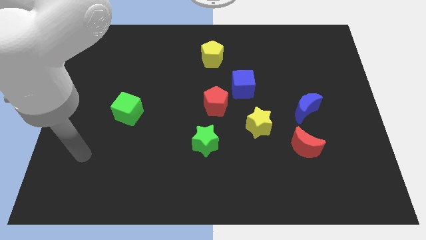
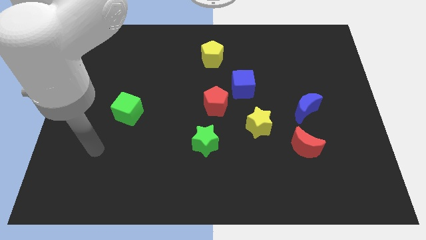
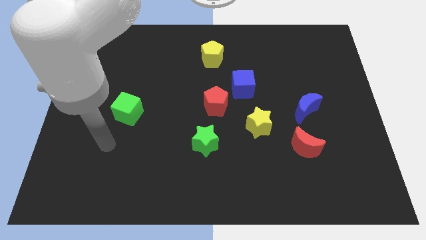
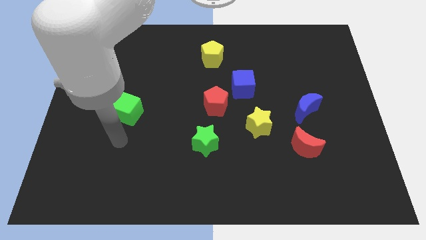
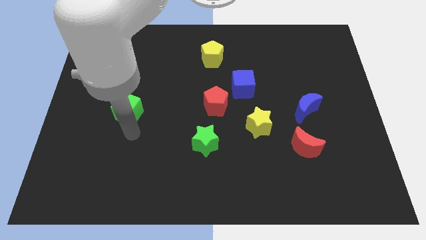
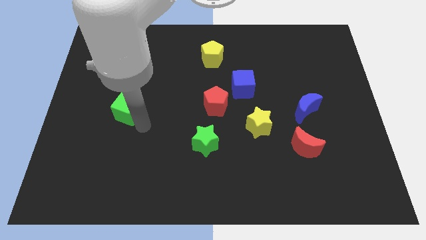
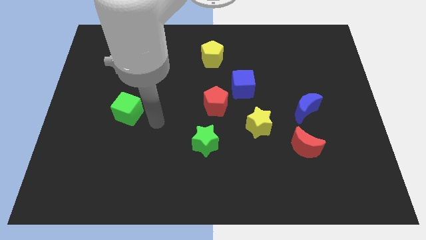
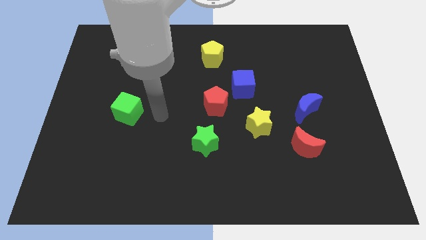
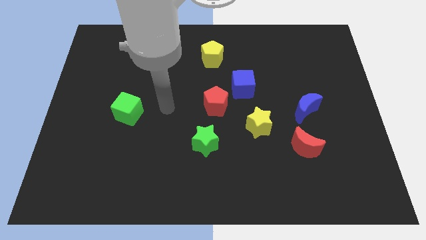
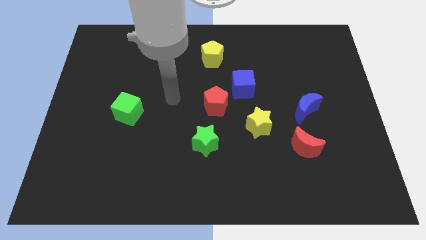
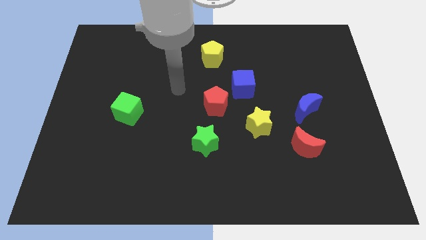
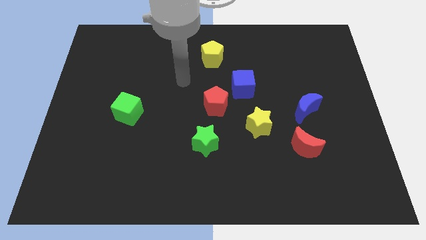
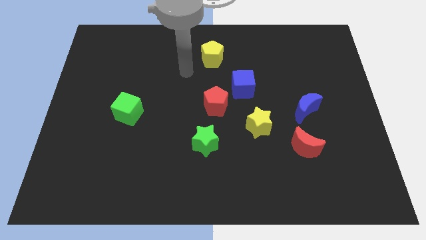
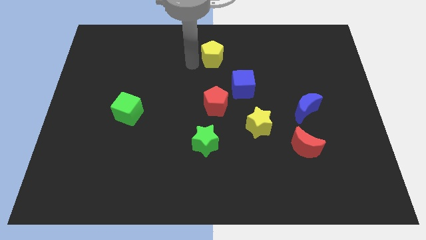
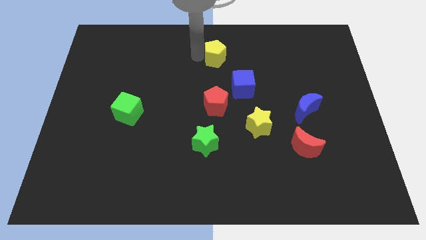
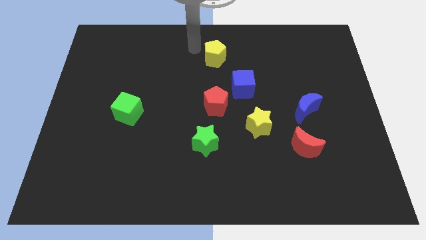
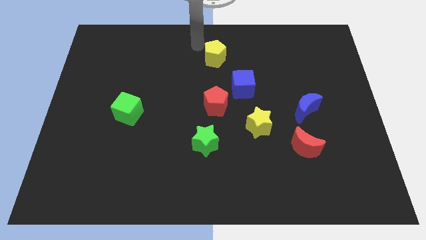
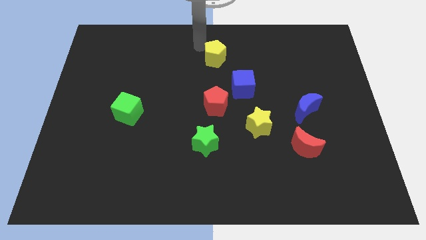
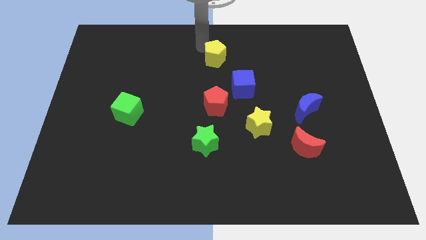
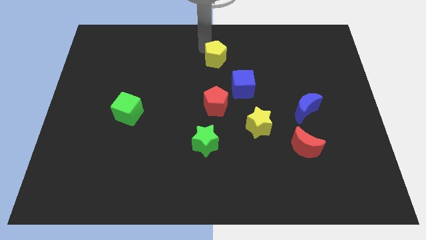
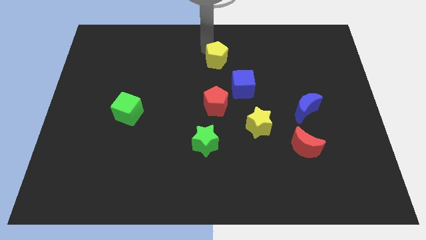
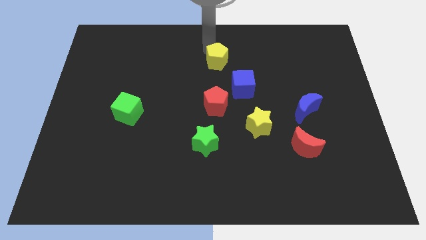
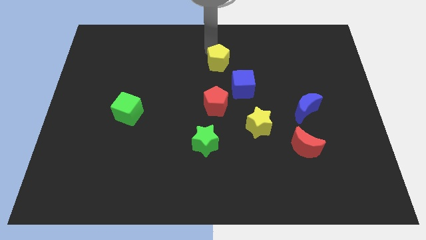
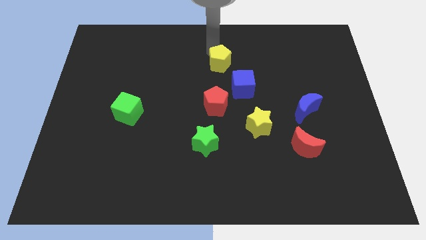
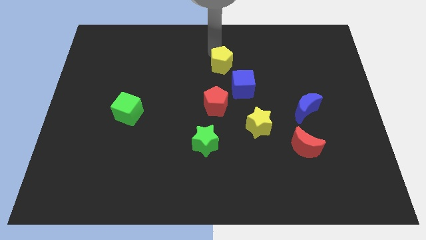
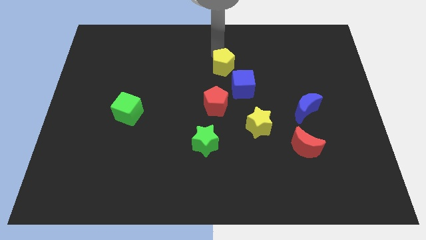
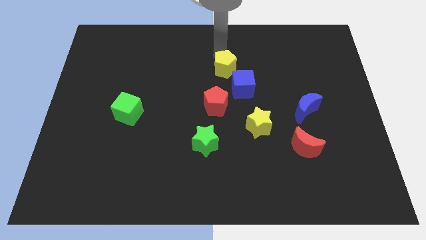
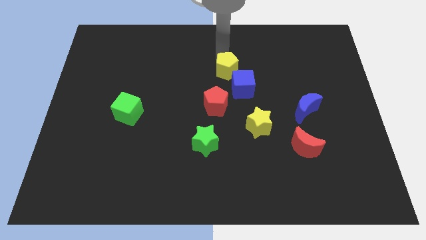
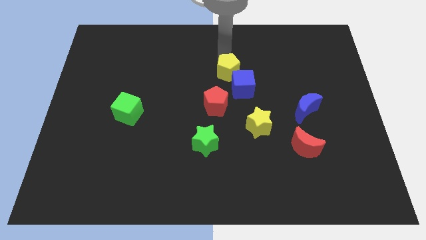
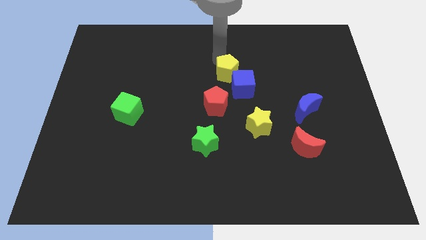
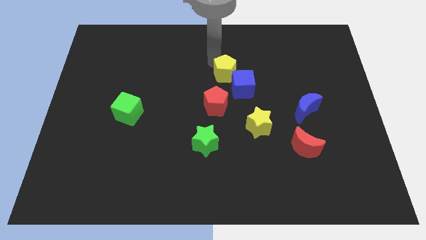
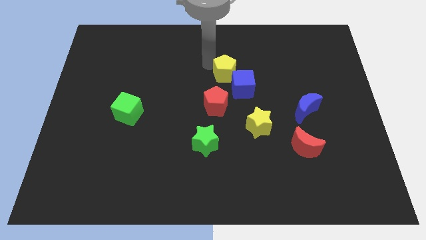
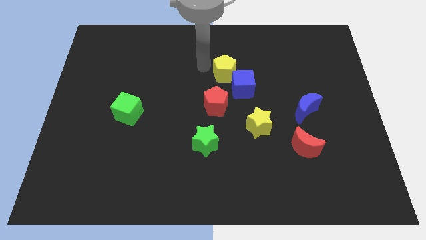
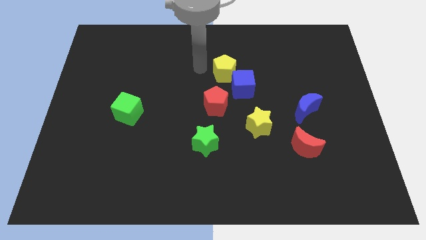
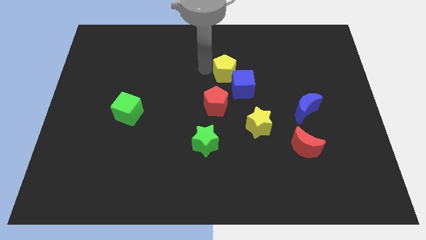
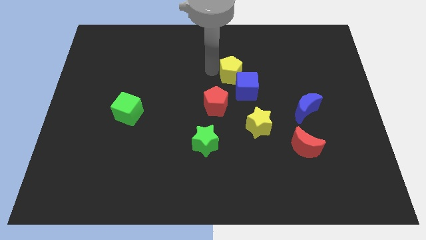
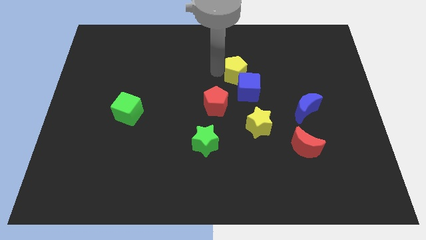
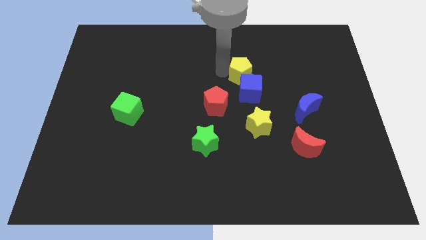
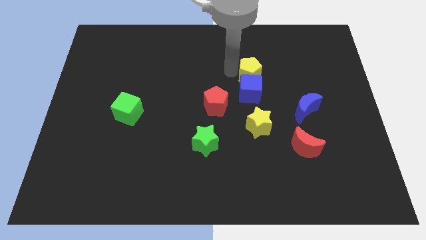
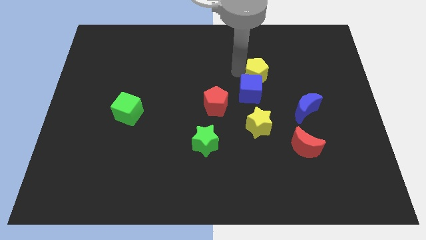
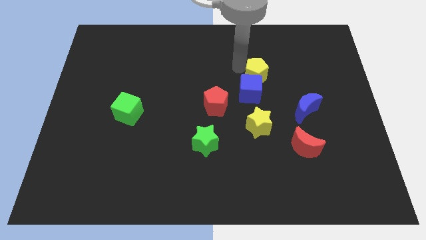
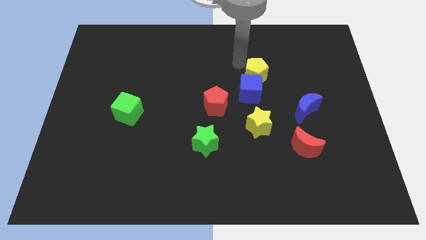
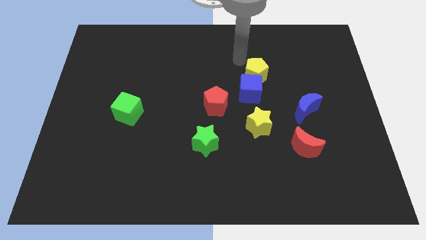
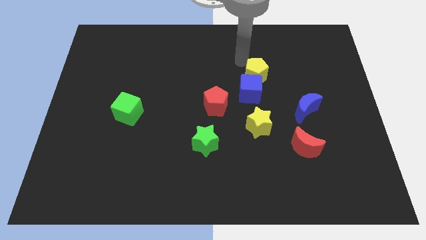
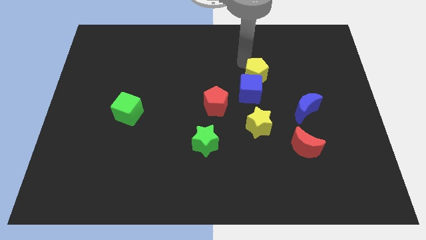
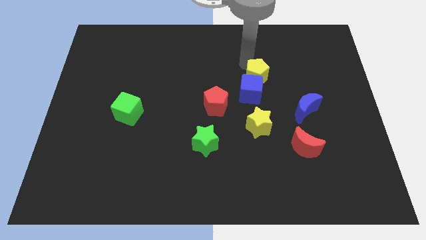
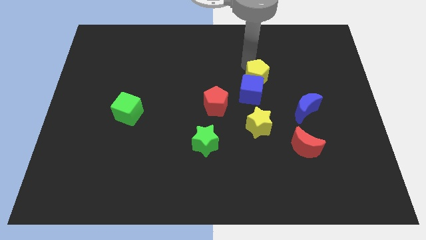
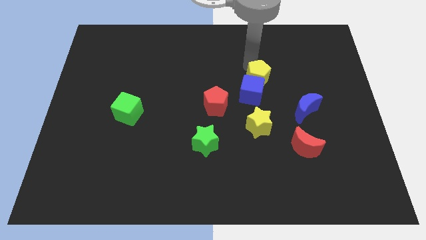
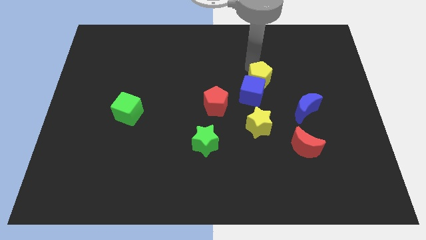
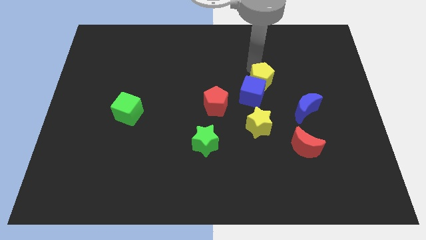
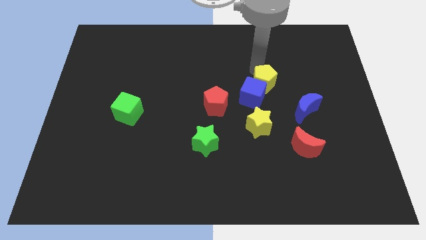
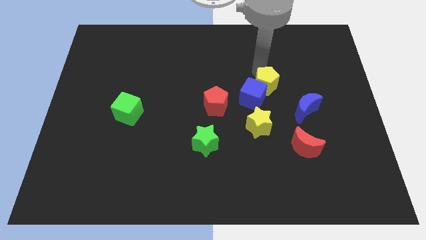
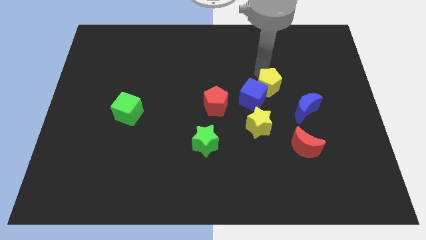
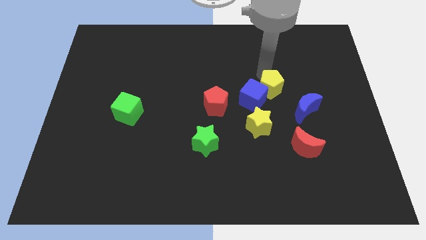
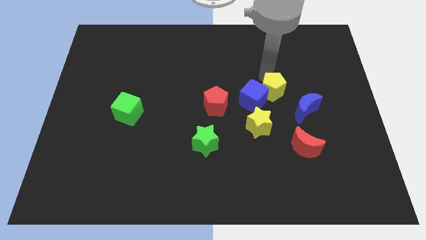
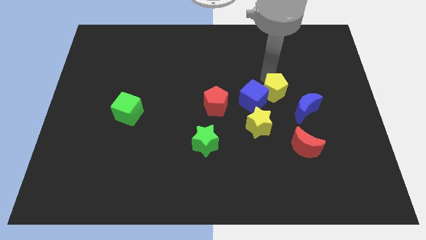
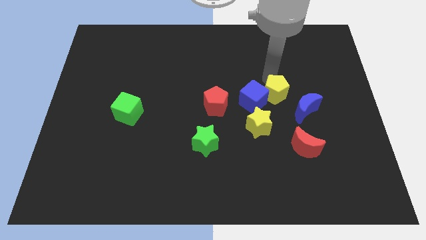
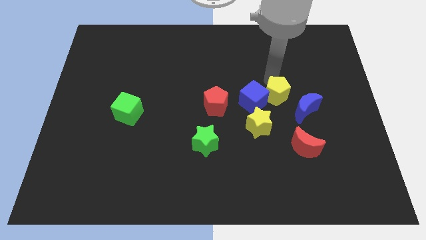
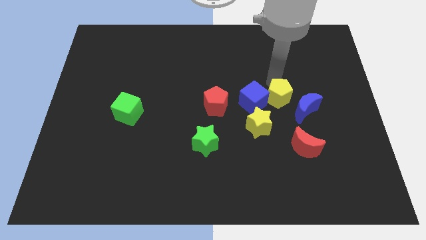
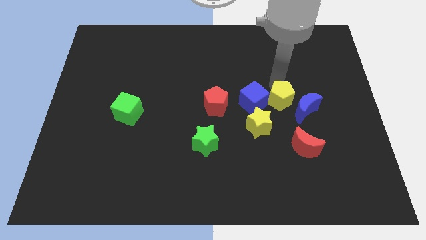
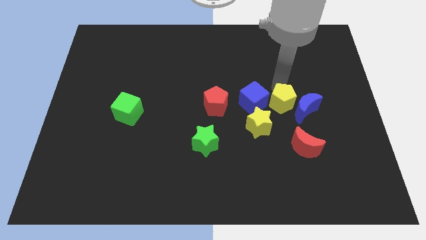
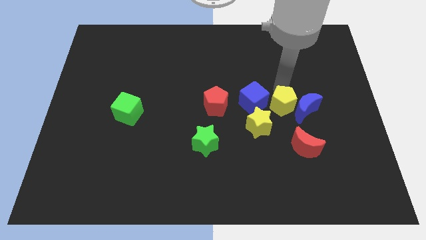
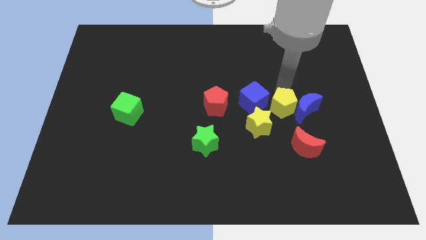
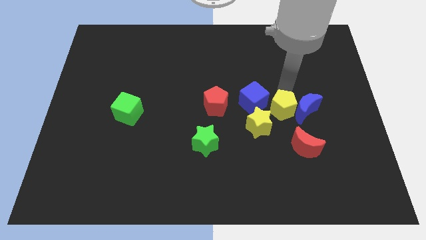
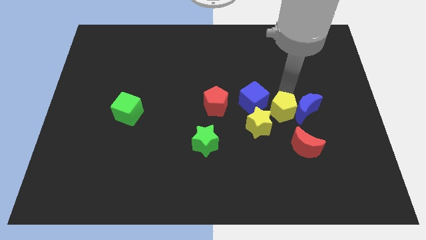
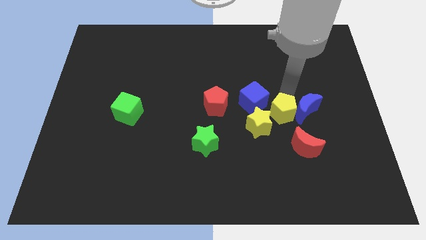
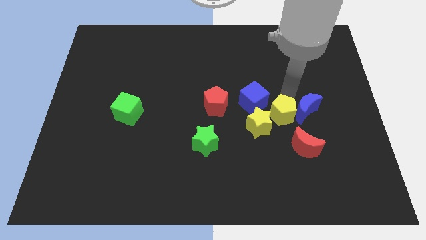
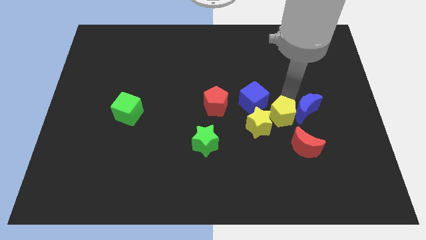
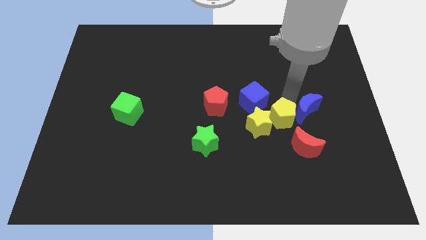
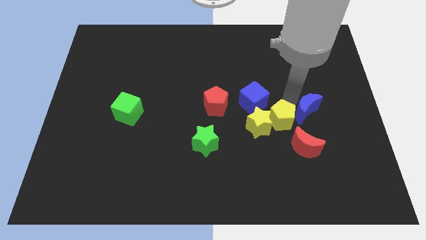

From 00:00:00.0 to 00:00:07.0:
put the yellow pentagon to the bottom right of the yellow star
